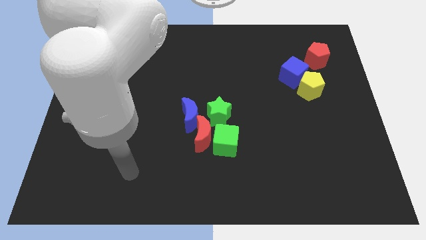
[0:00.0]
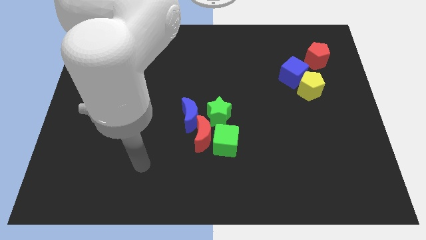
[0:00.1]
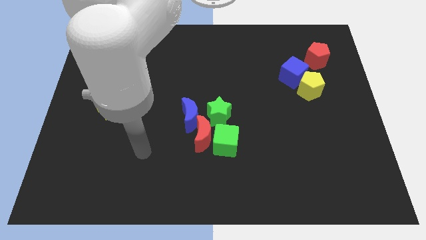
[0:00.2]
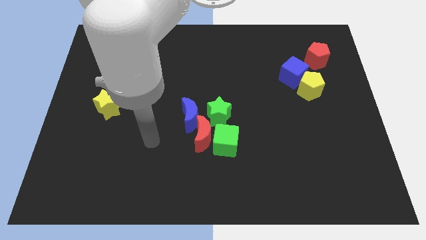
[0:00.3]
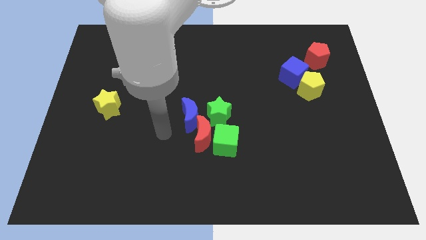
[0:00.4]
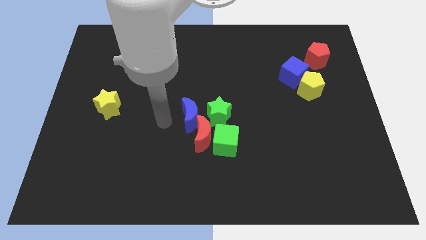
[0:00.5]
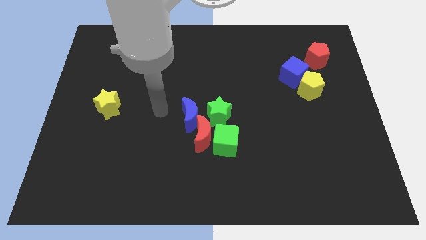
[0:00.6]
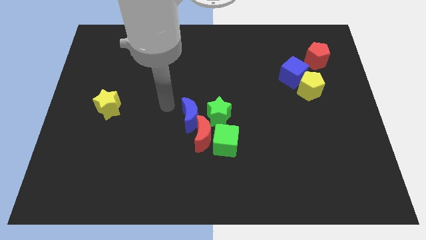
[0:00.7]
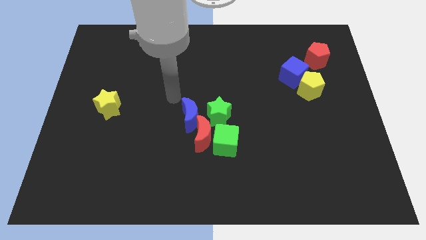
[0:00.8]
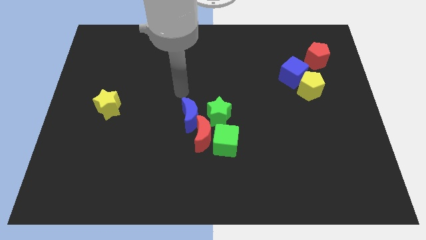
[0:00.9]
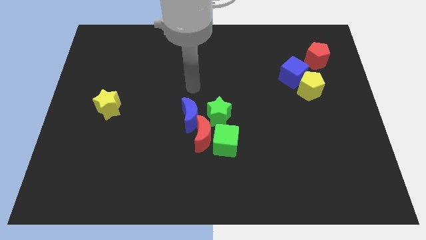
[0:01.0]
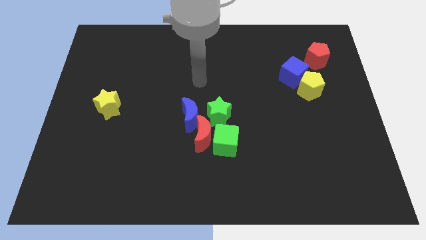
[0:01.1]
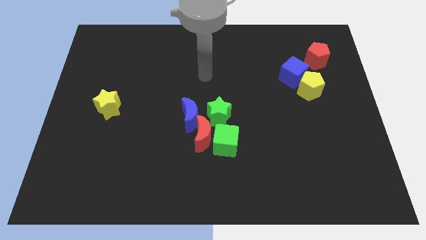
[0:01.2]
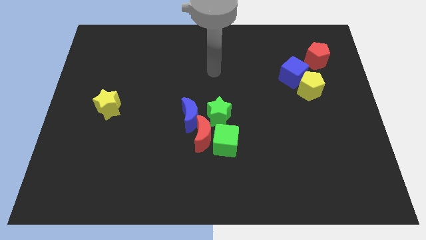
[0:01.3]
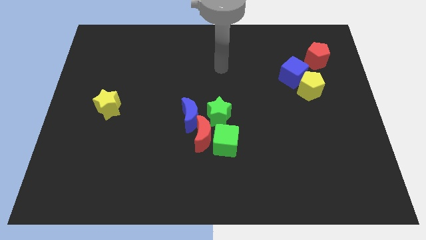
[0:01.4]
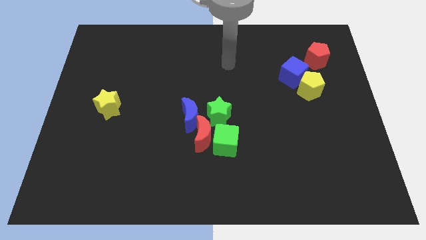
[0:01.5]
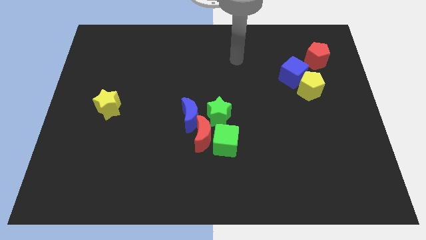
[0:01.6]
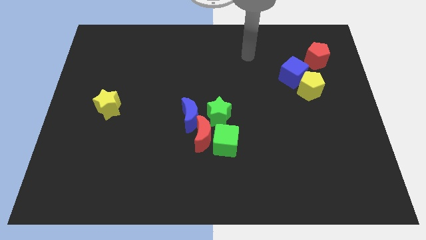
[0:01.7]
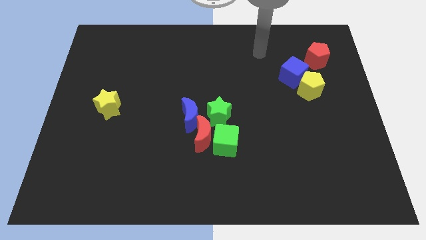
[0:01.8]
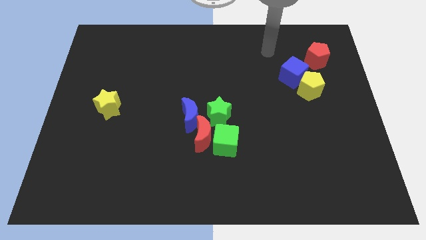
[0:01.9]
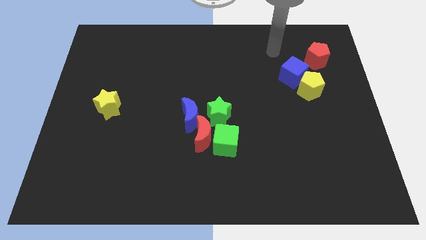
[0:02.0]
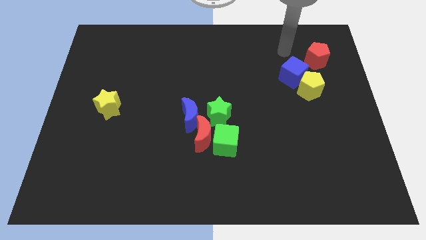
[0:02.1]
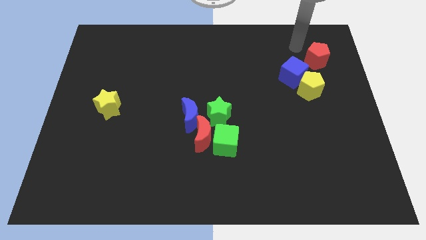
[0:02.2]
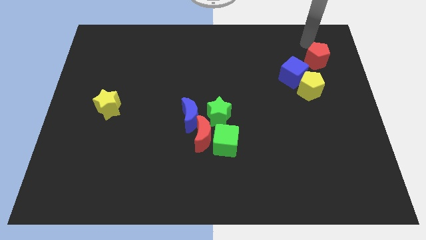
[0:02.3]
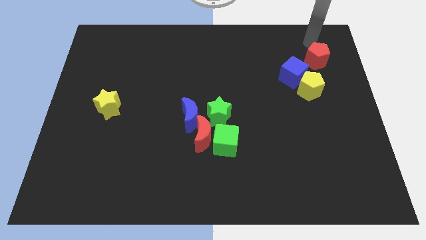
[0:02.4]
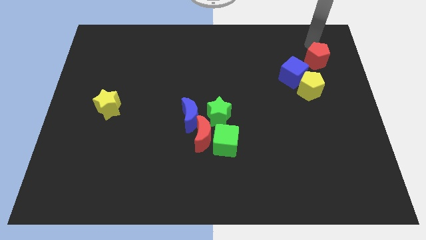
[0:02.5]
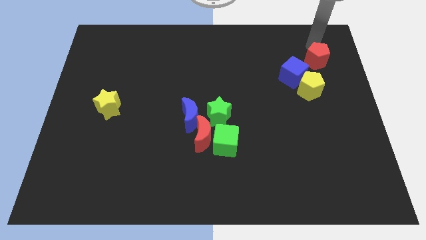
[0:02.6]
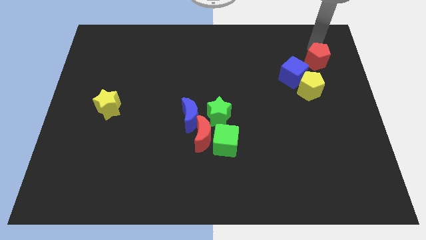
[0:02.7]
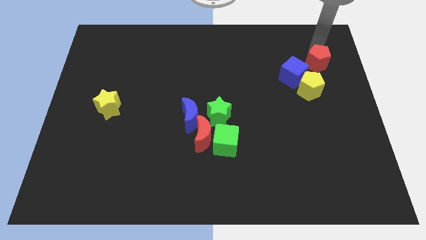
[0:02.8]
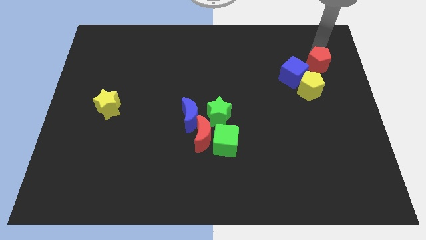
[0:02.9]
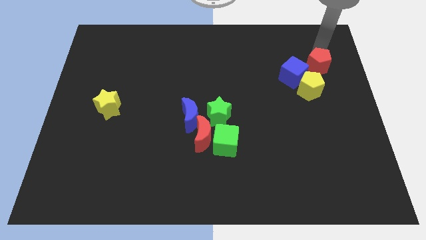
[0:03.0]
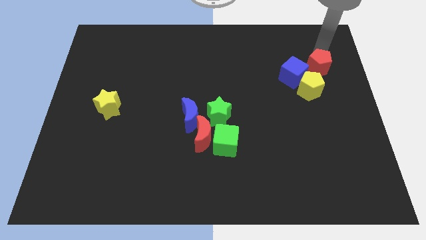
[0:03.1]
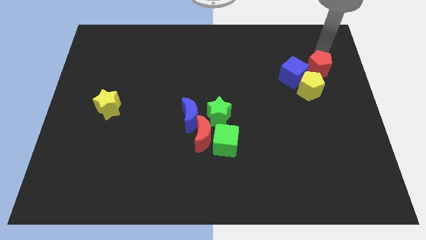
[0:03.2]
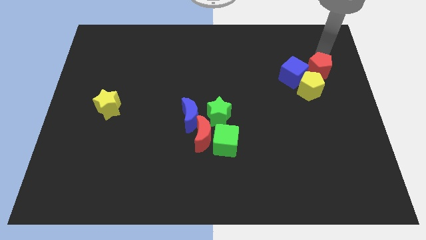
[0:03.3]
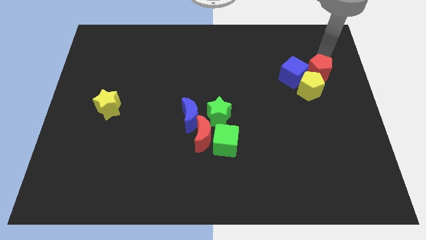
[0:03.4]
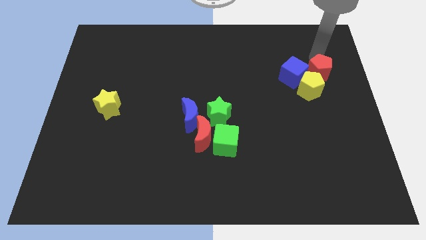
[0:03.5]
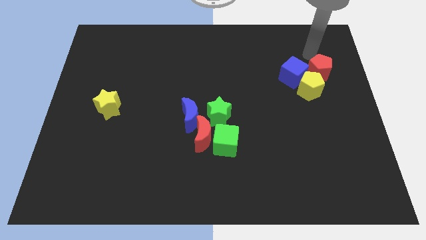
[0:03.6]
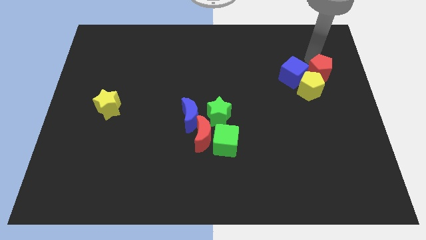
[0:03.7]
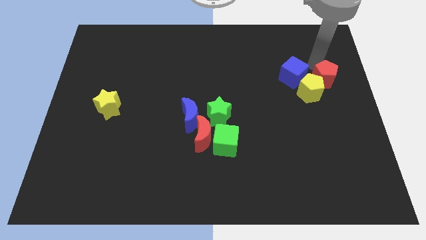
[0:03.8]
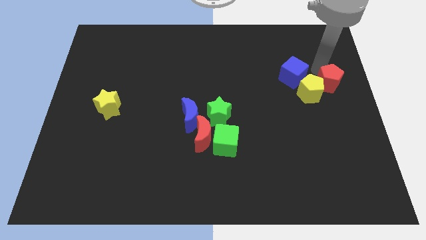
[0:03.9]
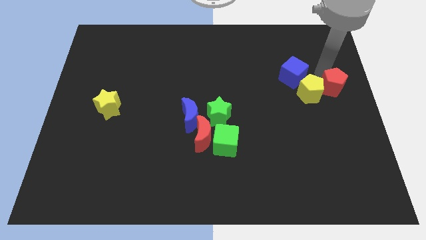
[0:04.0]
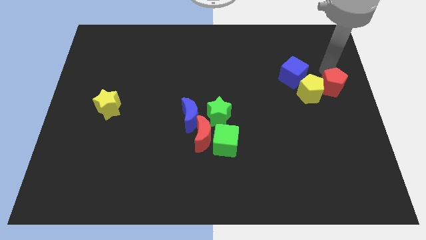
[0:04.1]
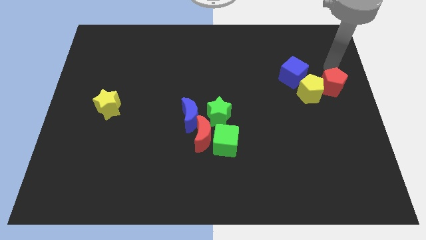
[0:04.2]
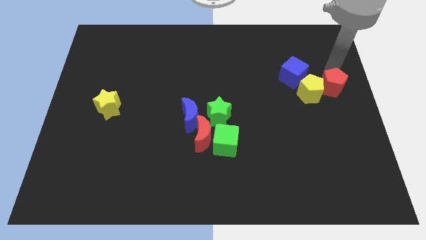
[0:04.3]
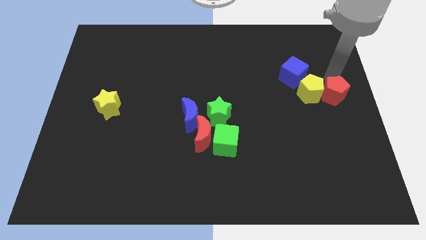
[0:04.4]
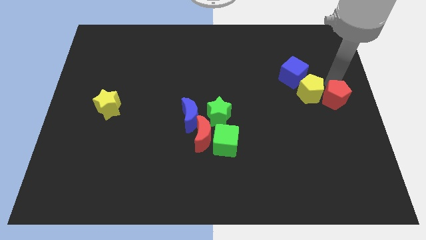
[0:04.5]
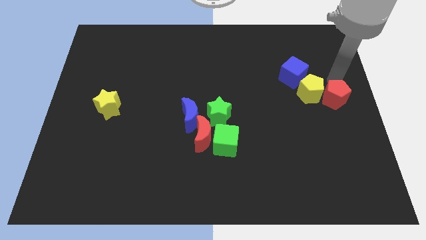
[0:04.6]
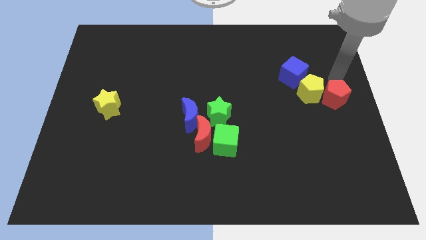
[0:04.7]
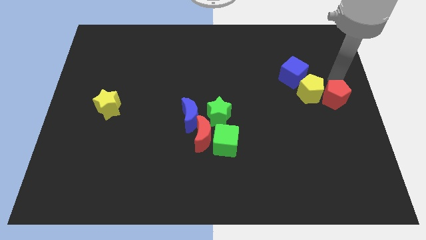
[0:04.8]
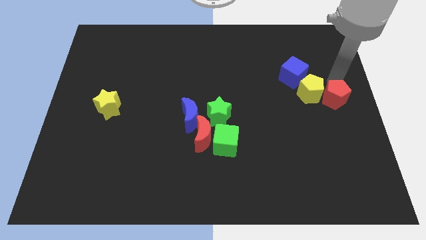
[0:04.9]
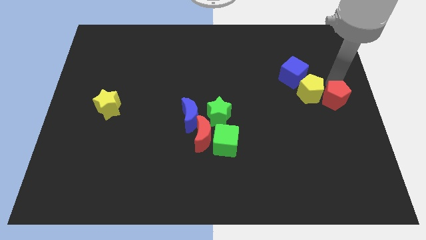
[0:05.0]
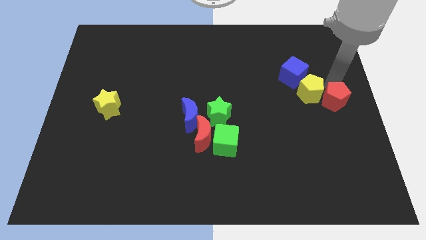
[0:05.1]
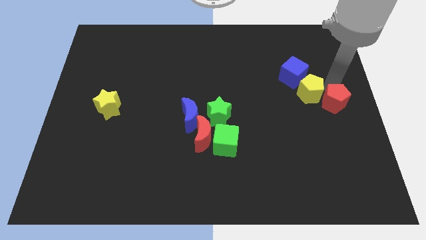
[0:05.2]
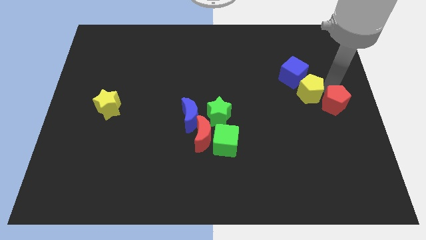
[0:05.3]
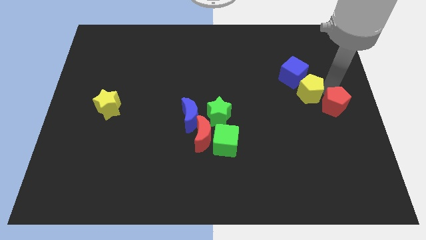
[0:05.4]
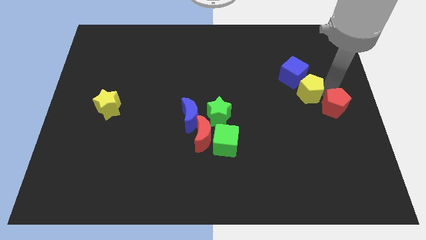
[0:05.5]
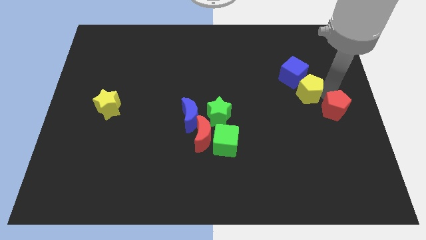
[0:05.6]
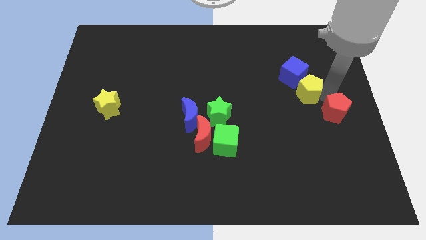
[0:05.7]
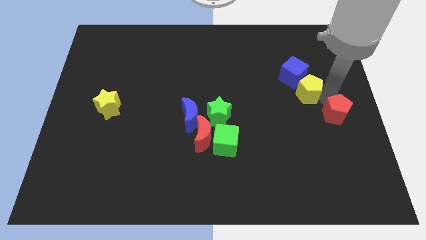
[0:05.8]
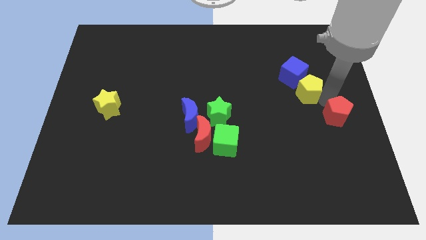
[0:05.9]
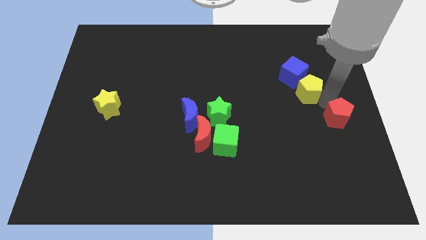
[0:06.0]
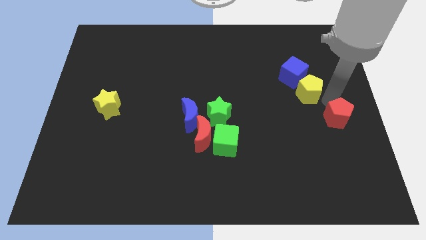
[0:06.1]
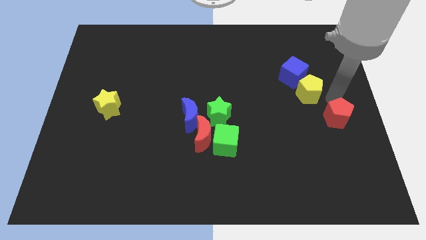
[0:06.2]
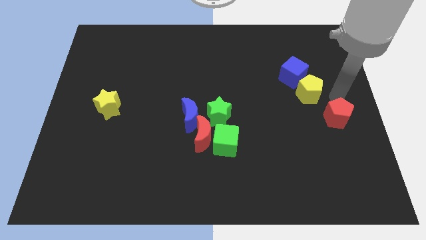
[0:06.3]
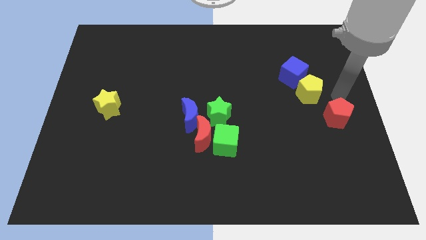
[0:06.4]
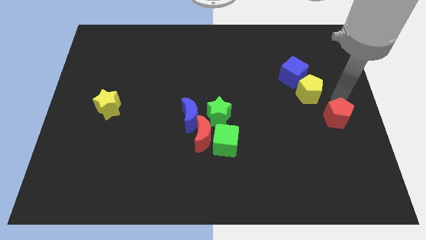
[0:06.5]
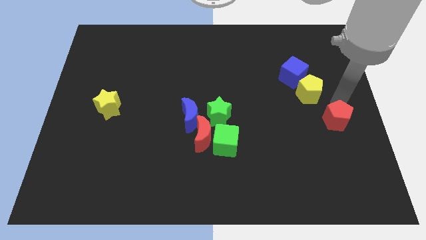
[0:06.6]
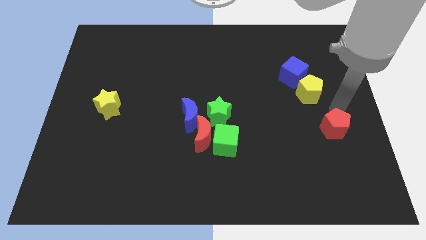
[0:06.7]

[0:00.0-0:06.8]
push the red pentagon downwards

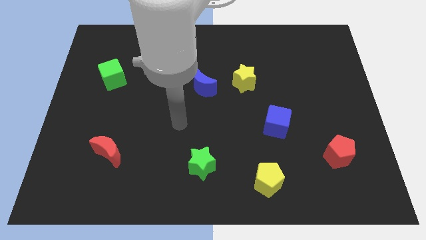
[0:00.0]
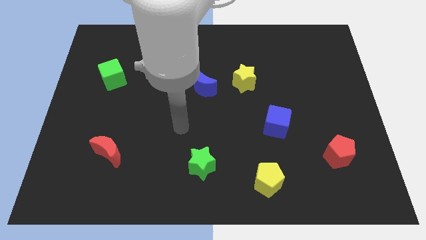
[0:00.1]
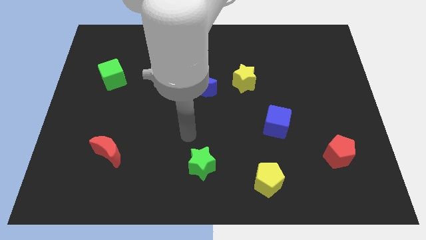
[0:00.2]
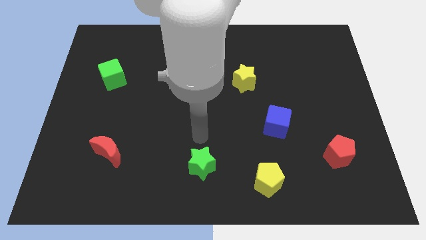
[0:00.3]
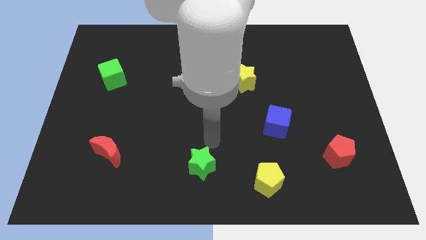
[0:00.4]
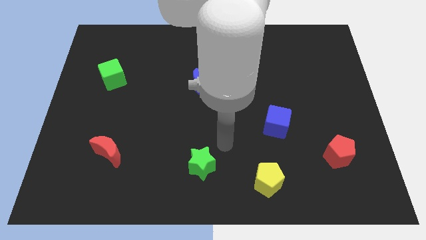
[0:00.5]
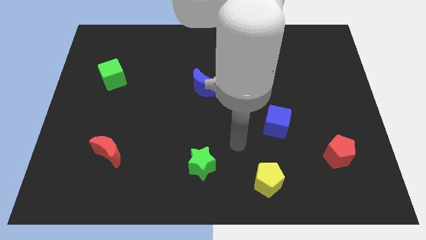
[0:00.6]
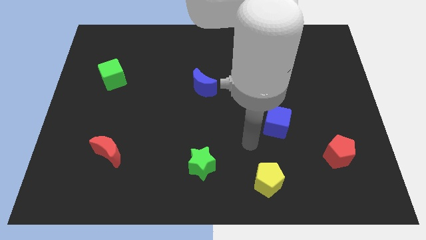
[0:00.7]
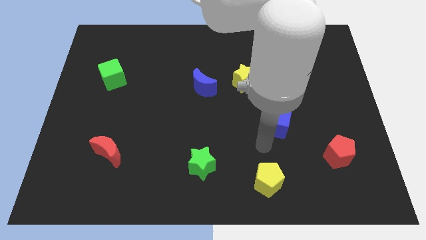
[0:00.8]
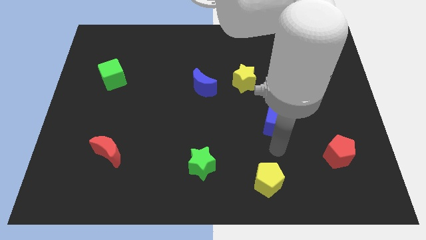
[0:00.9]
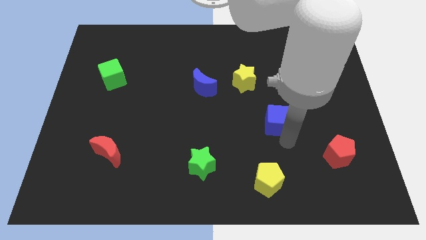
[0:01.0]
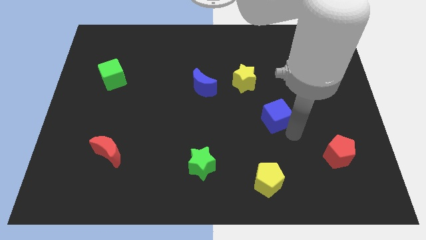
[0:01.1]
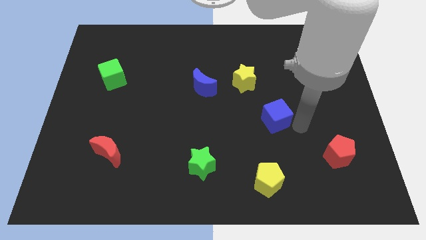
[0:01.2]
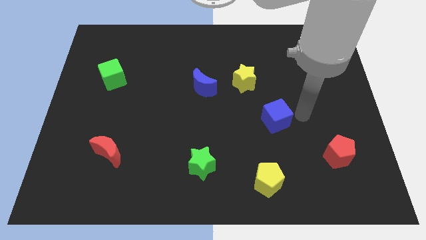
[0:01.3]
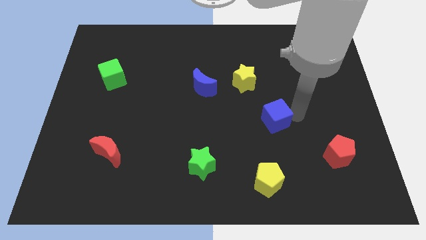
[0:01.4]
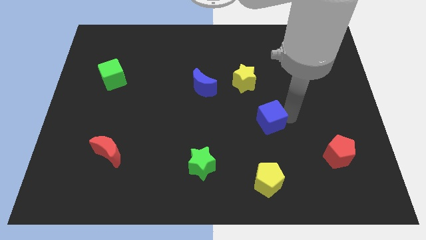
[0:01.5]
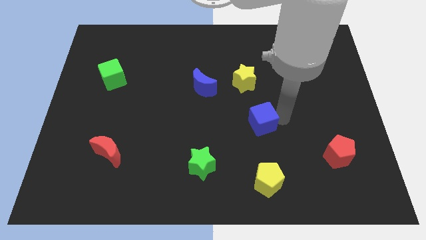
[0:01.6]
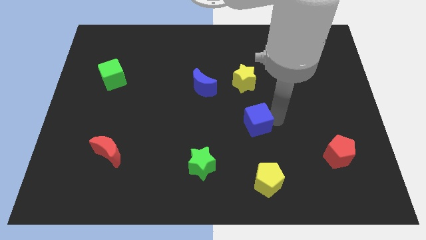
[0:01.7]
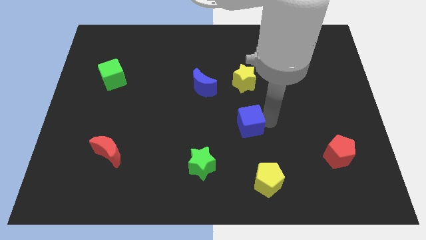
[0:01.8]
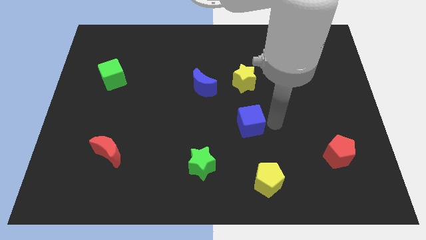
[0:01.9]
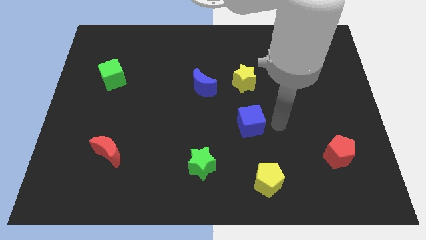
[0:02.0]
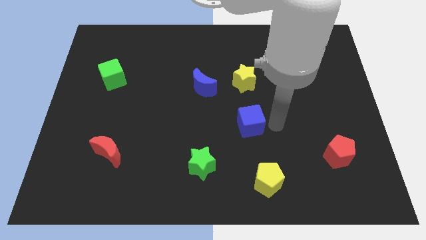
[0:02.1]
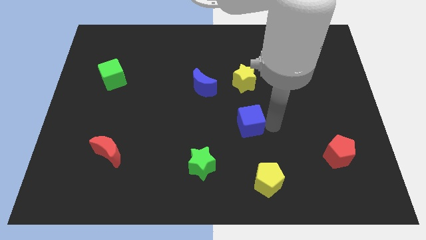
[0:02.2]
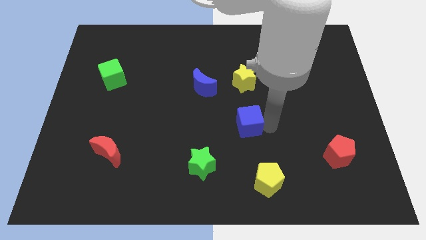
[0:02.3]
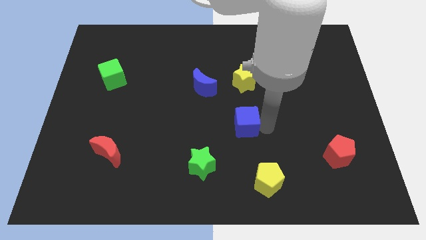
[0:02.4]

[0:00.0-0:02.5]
slightly slide the blue cube to the left
